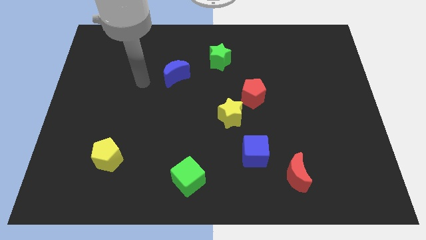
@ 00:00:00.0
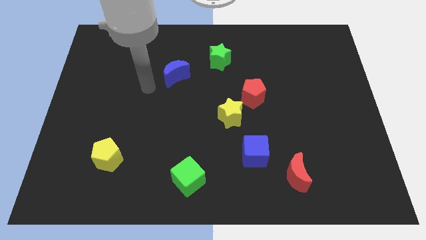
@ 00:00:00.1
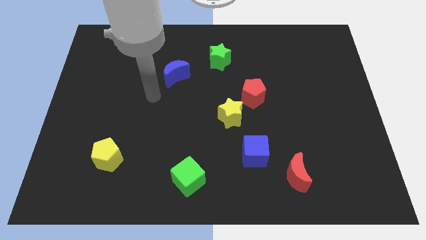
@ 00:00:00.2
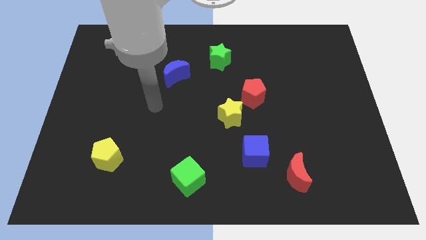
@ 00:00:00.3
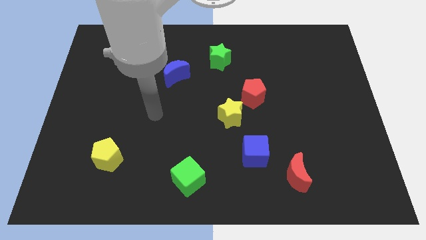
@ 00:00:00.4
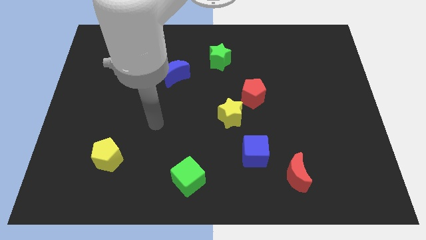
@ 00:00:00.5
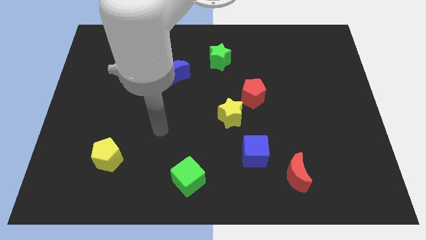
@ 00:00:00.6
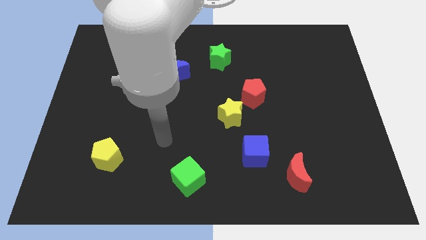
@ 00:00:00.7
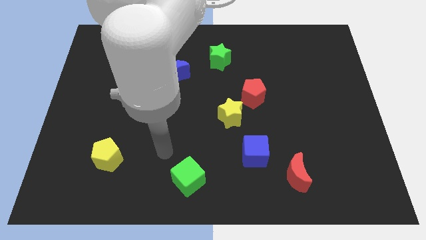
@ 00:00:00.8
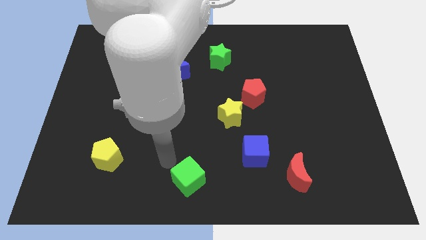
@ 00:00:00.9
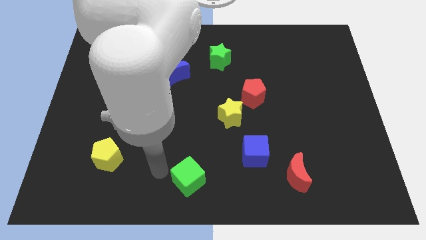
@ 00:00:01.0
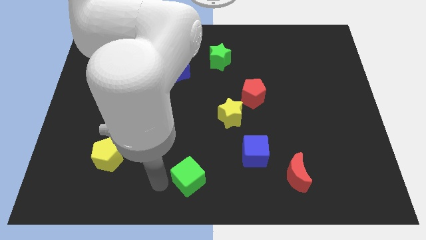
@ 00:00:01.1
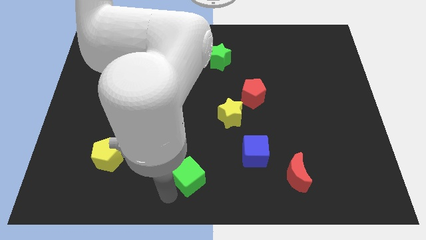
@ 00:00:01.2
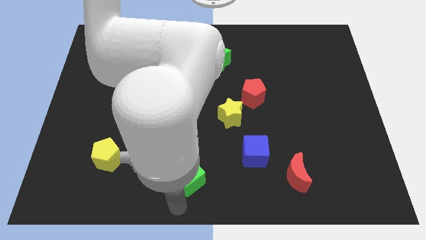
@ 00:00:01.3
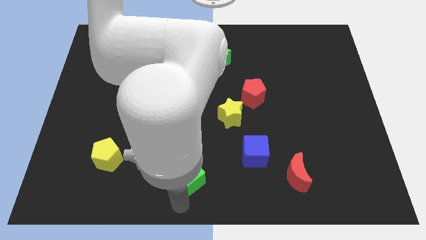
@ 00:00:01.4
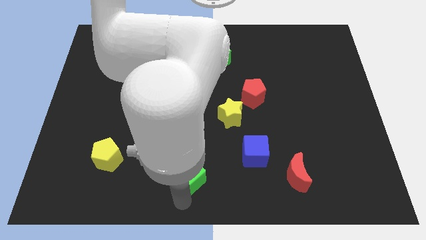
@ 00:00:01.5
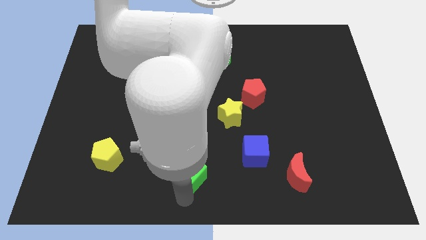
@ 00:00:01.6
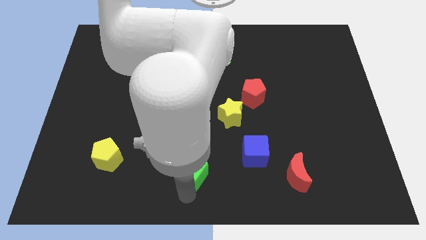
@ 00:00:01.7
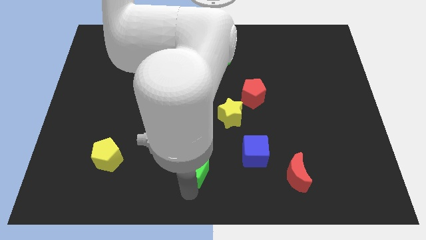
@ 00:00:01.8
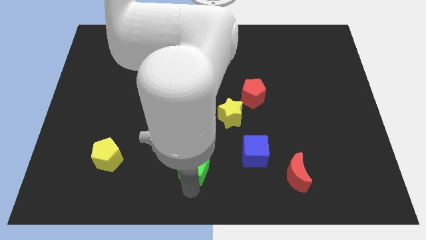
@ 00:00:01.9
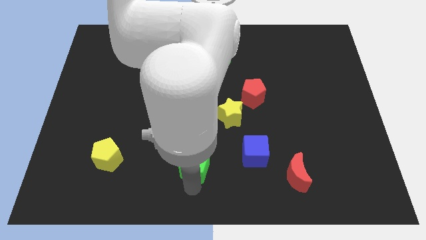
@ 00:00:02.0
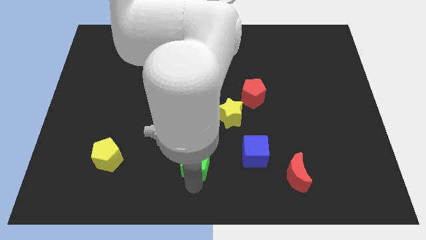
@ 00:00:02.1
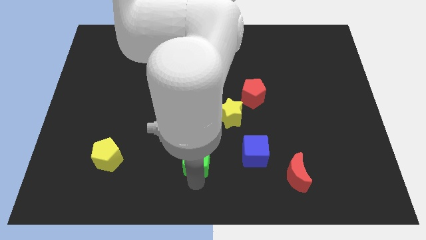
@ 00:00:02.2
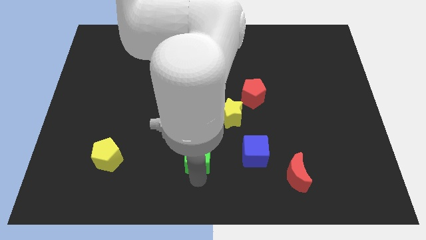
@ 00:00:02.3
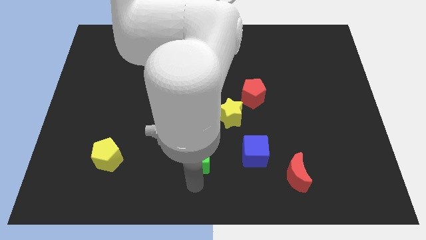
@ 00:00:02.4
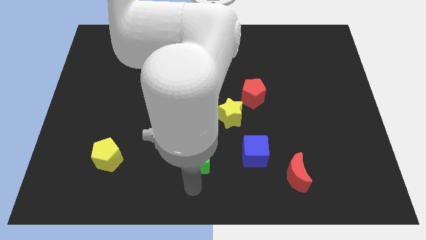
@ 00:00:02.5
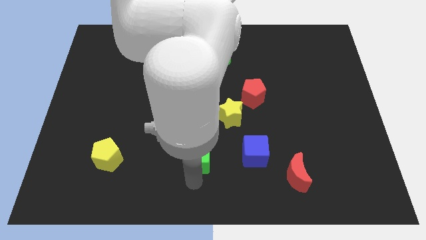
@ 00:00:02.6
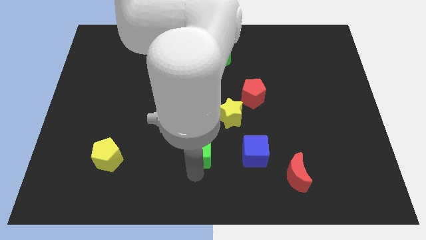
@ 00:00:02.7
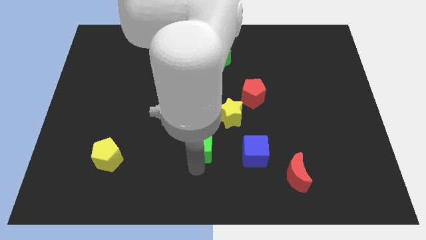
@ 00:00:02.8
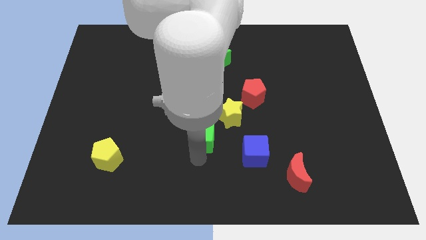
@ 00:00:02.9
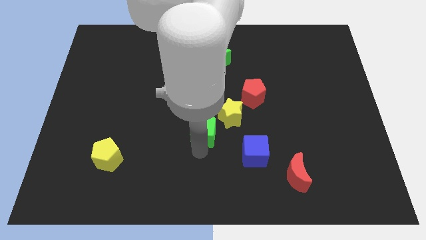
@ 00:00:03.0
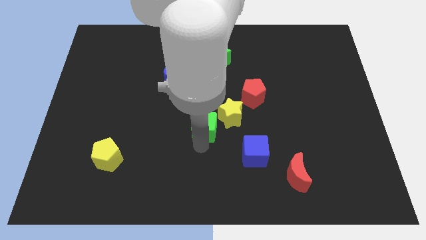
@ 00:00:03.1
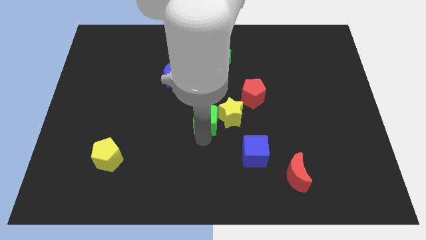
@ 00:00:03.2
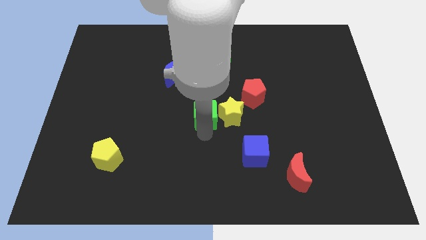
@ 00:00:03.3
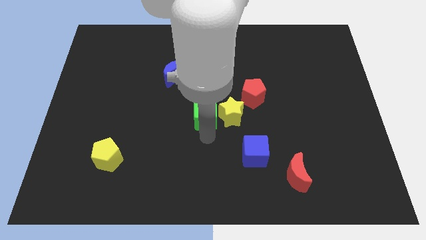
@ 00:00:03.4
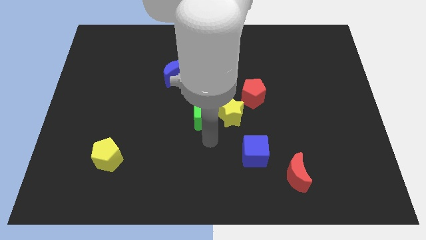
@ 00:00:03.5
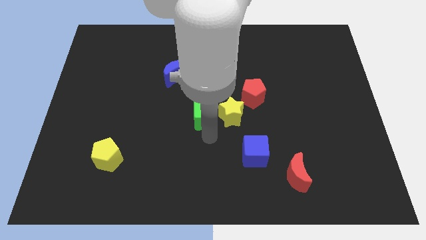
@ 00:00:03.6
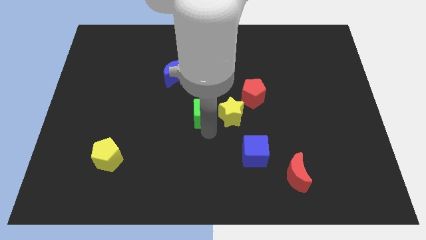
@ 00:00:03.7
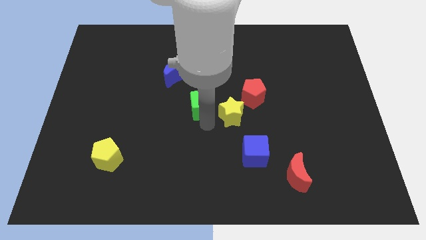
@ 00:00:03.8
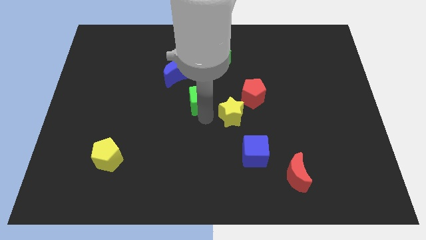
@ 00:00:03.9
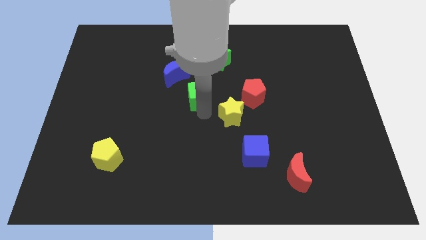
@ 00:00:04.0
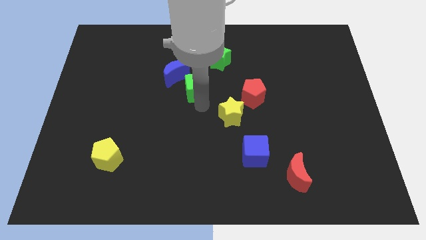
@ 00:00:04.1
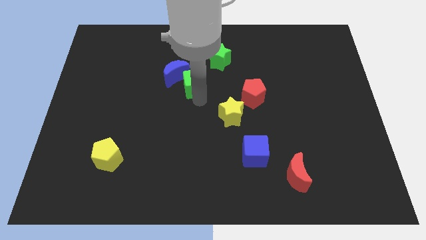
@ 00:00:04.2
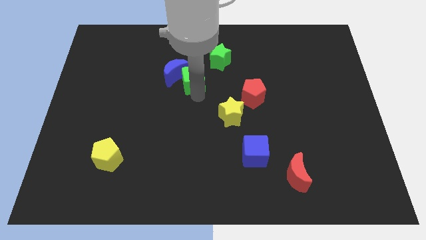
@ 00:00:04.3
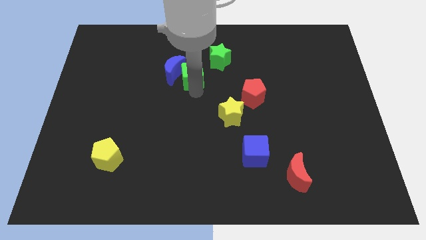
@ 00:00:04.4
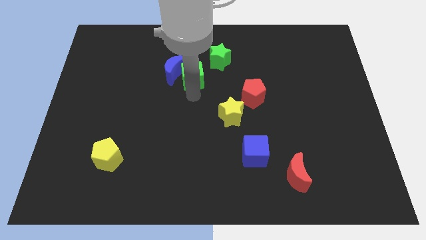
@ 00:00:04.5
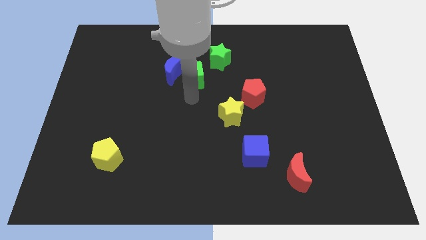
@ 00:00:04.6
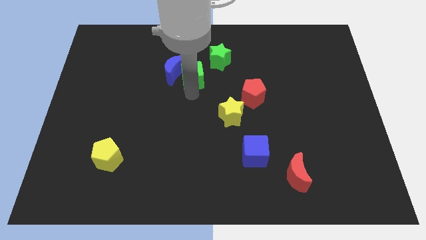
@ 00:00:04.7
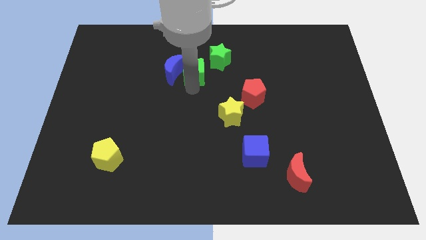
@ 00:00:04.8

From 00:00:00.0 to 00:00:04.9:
push the green cube to the top right of the blue moon

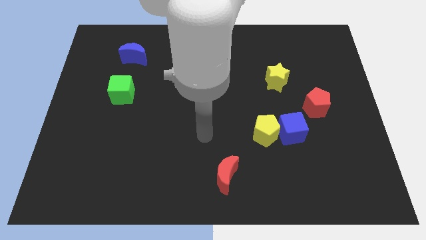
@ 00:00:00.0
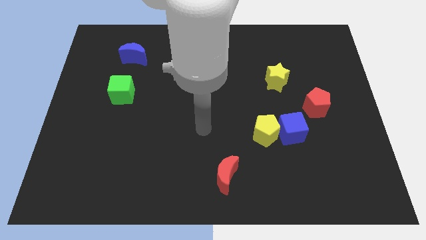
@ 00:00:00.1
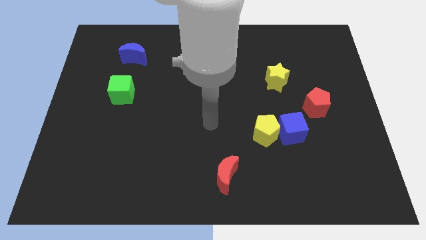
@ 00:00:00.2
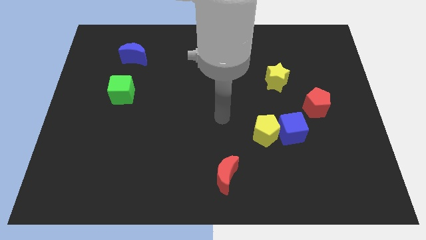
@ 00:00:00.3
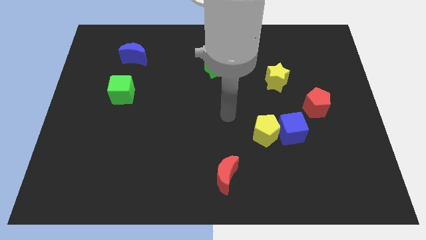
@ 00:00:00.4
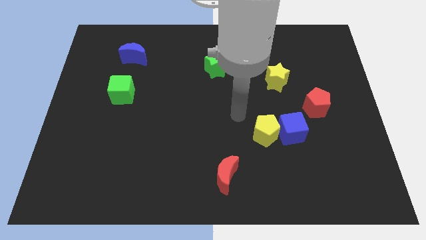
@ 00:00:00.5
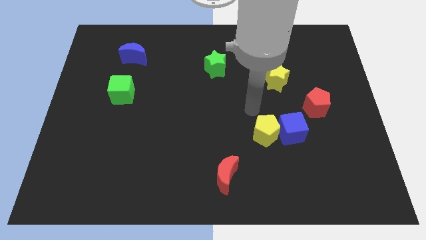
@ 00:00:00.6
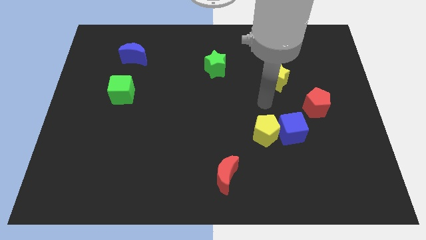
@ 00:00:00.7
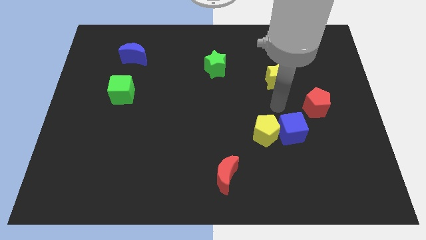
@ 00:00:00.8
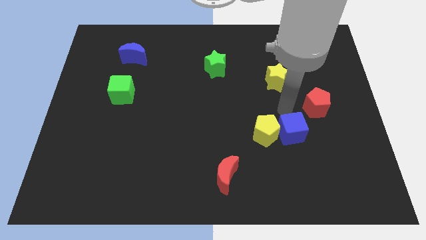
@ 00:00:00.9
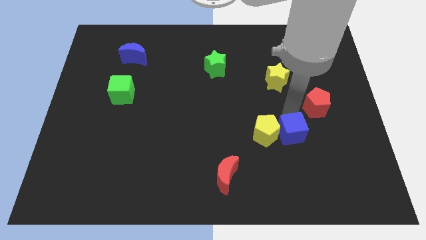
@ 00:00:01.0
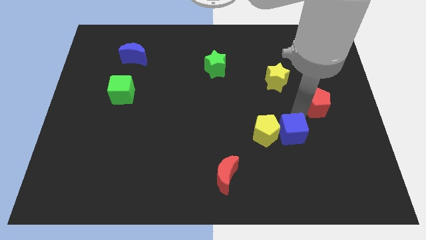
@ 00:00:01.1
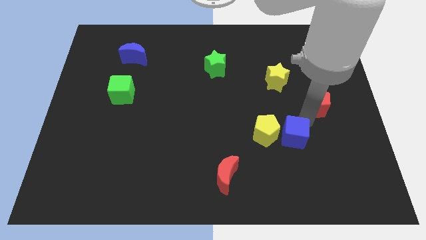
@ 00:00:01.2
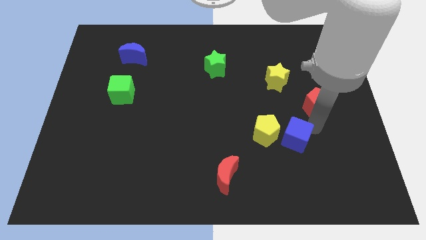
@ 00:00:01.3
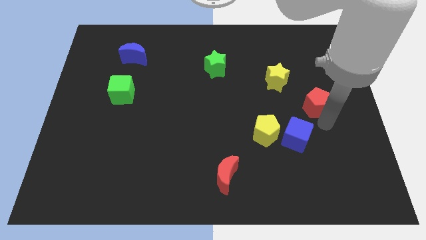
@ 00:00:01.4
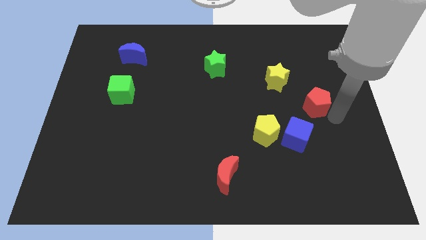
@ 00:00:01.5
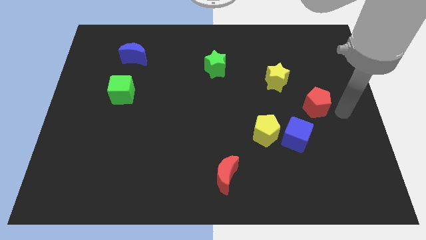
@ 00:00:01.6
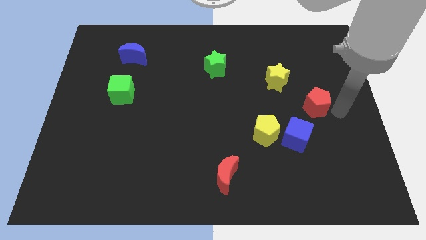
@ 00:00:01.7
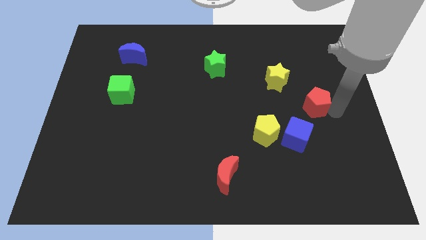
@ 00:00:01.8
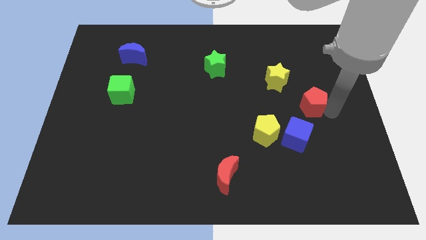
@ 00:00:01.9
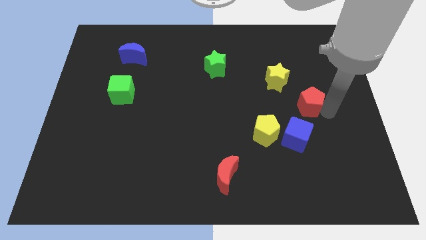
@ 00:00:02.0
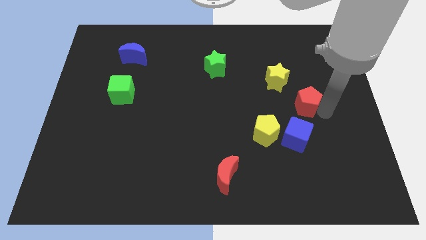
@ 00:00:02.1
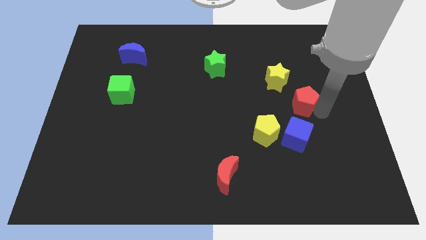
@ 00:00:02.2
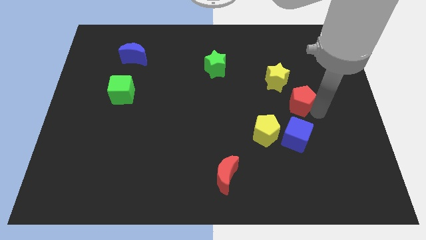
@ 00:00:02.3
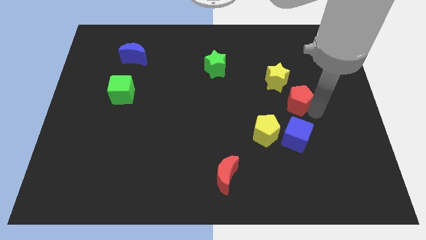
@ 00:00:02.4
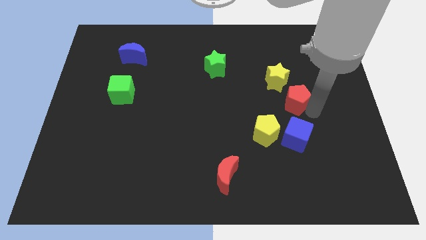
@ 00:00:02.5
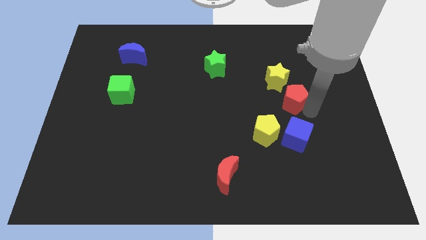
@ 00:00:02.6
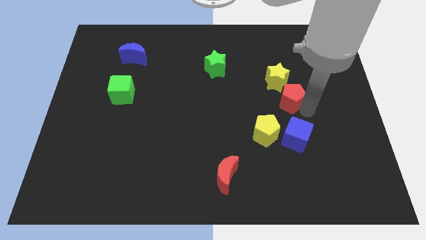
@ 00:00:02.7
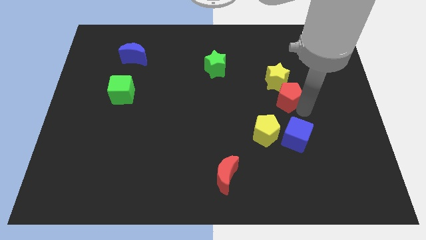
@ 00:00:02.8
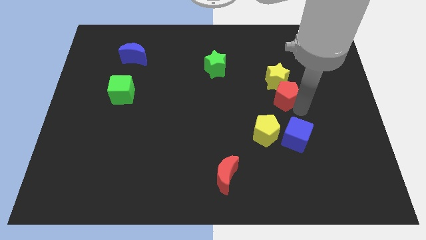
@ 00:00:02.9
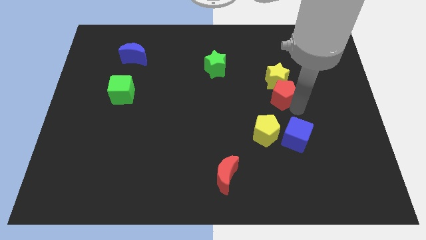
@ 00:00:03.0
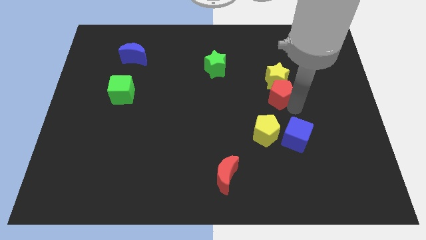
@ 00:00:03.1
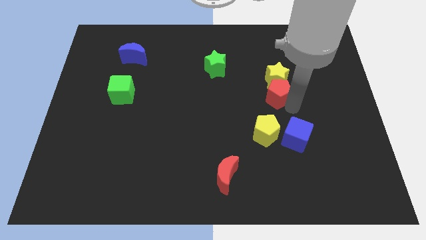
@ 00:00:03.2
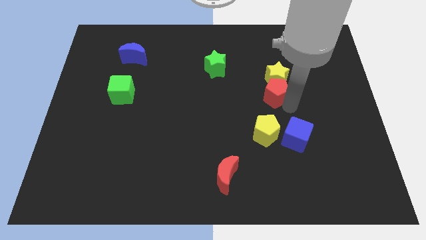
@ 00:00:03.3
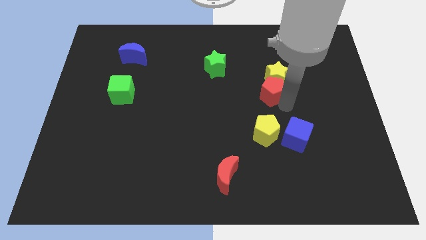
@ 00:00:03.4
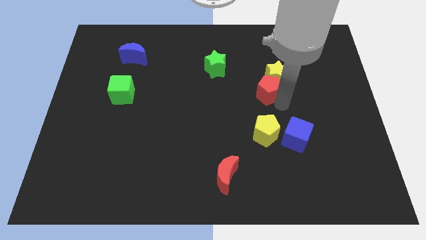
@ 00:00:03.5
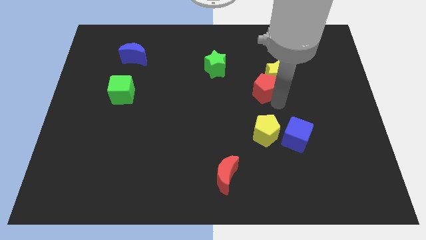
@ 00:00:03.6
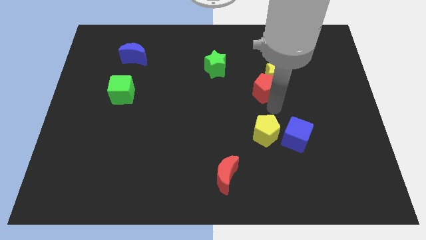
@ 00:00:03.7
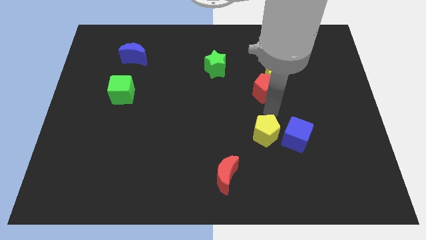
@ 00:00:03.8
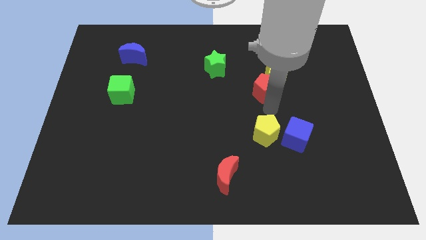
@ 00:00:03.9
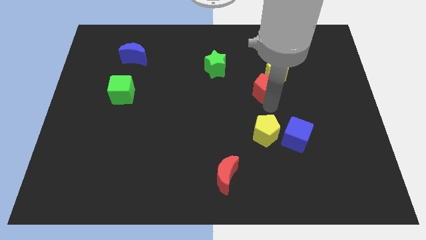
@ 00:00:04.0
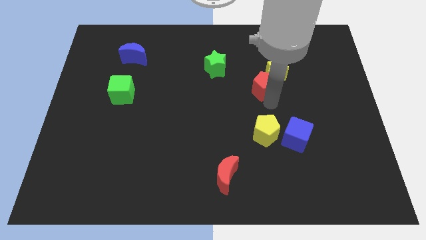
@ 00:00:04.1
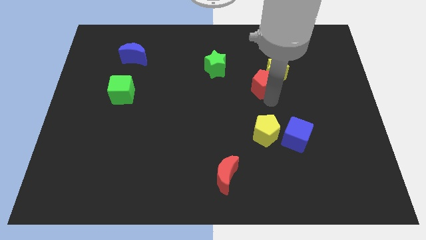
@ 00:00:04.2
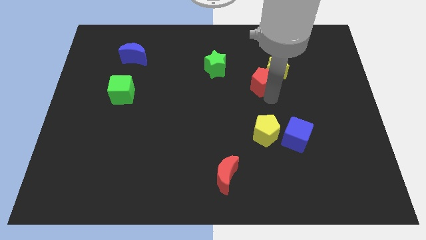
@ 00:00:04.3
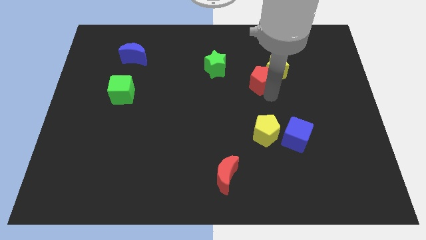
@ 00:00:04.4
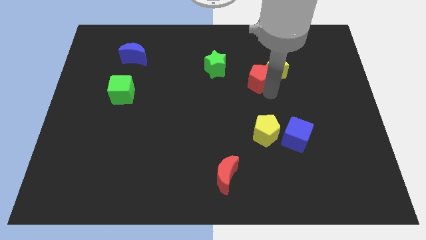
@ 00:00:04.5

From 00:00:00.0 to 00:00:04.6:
put the red pentagon to the right side of the green star
